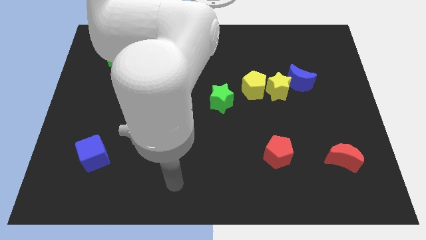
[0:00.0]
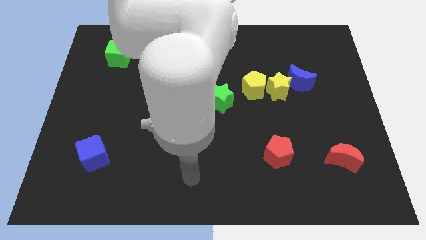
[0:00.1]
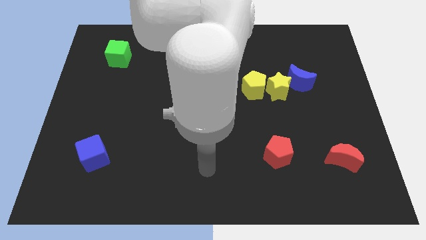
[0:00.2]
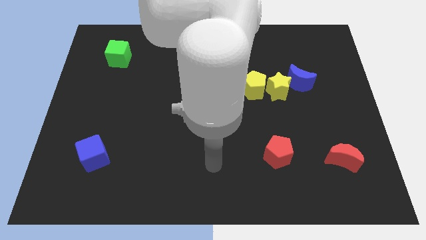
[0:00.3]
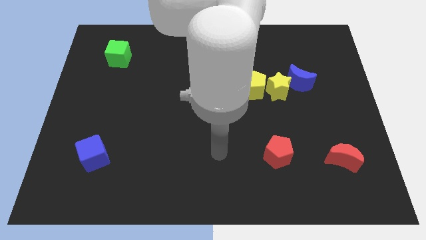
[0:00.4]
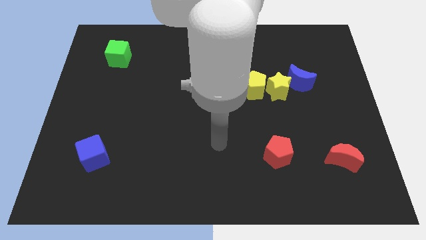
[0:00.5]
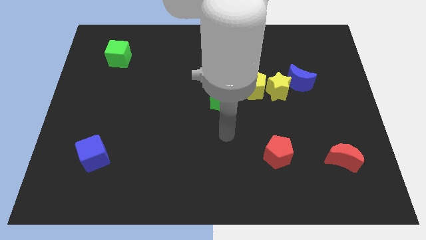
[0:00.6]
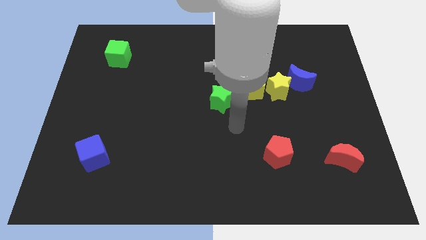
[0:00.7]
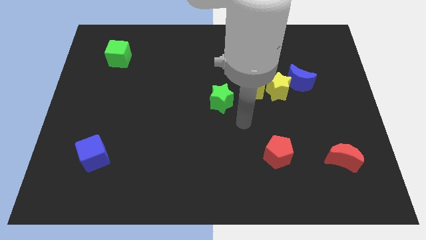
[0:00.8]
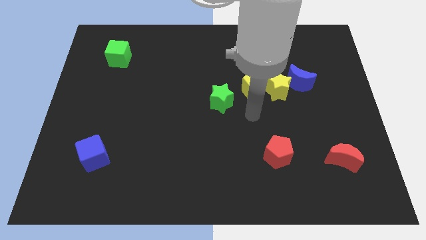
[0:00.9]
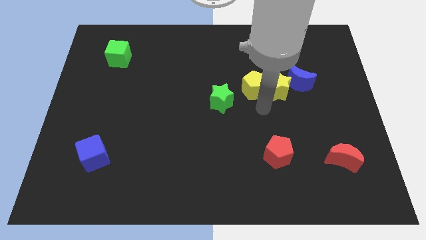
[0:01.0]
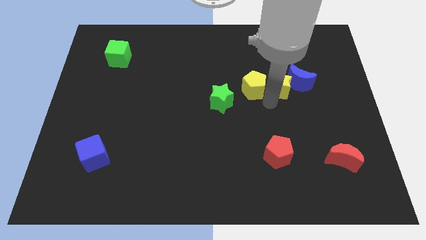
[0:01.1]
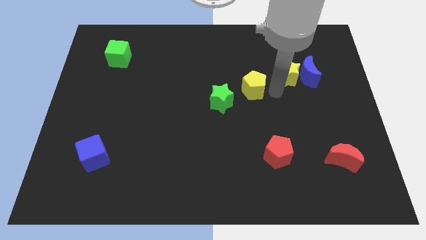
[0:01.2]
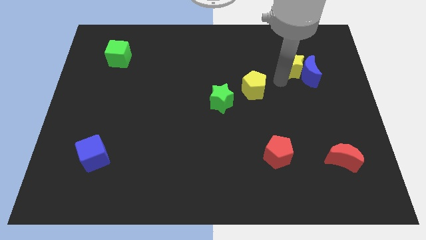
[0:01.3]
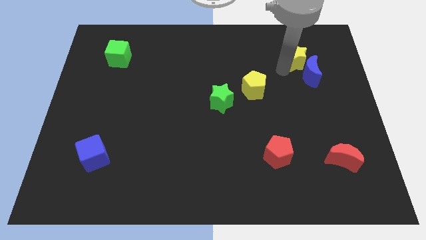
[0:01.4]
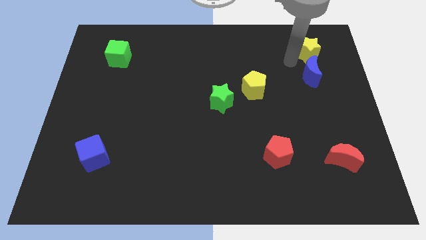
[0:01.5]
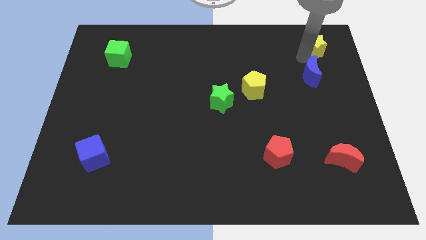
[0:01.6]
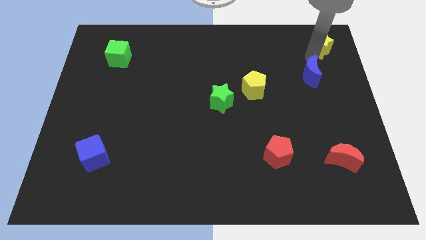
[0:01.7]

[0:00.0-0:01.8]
pull the blue moon apart from the yellow star

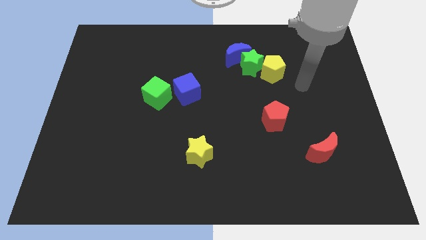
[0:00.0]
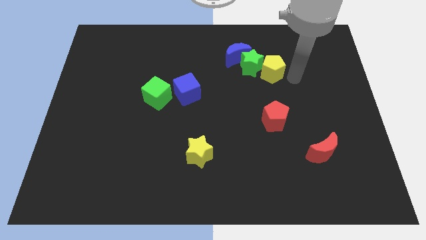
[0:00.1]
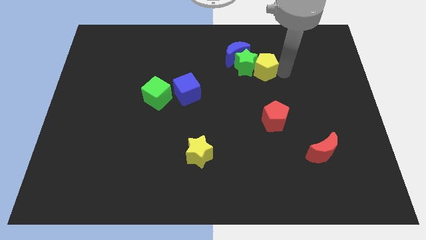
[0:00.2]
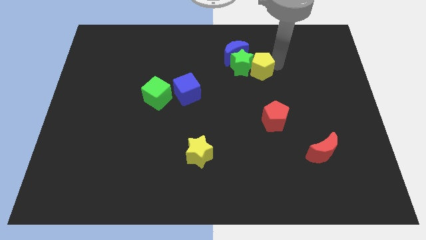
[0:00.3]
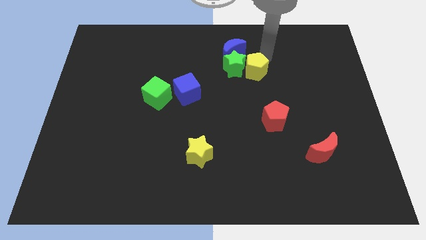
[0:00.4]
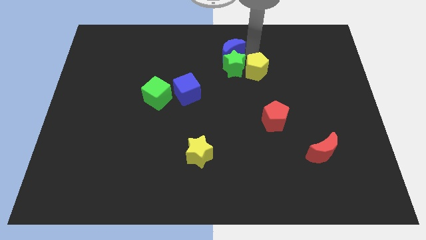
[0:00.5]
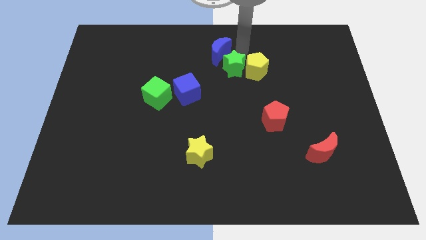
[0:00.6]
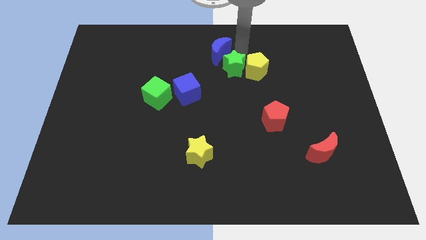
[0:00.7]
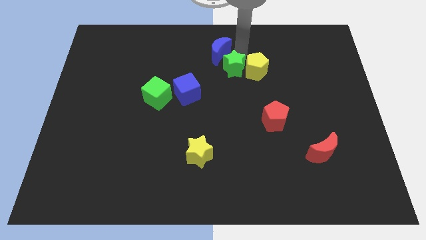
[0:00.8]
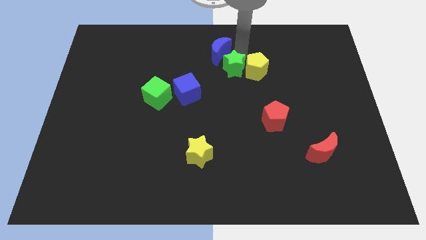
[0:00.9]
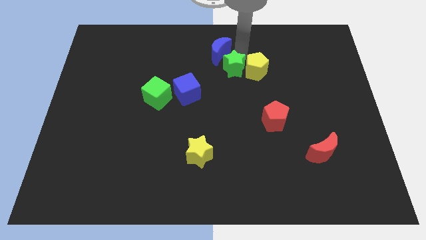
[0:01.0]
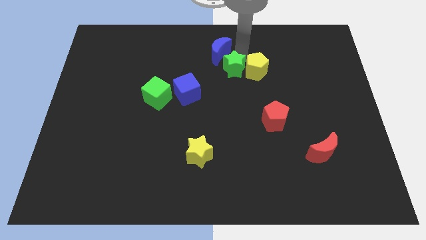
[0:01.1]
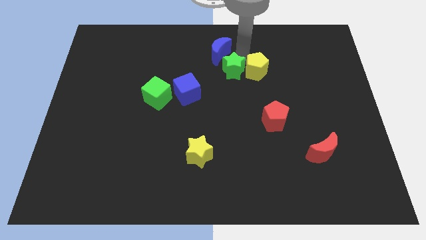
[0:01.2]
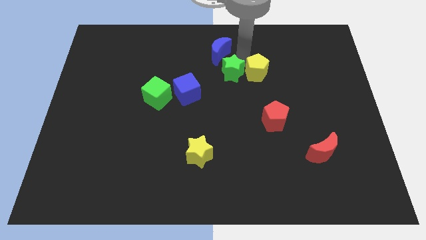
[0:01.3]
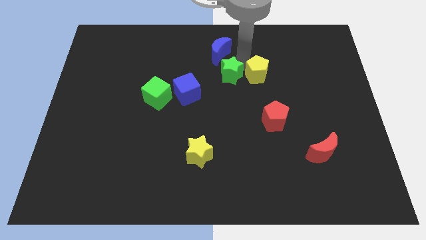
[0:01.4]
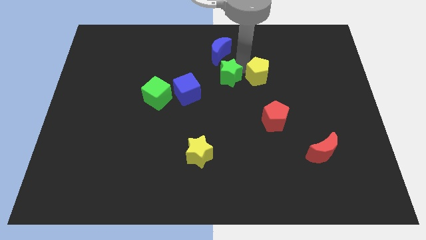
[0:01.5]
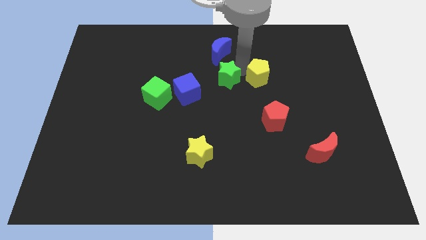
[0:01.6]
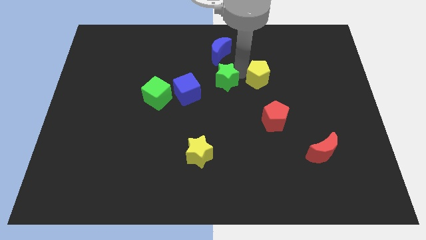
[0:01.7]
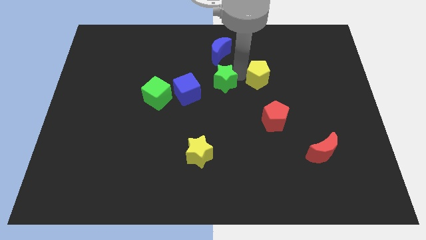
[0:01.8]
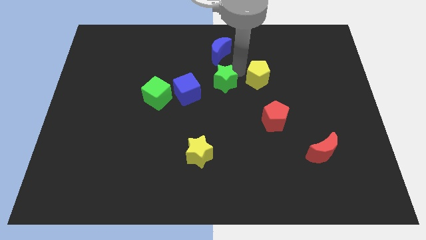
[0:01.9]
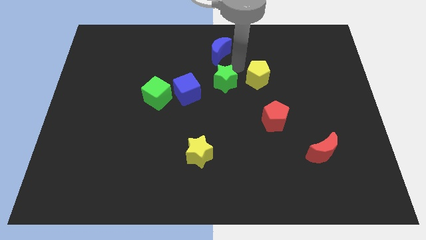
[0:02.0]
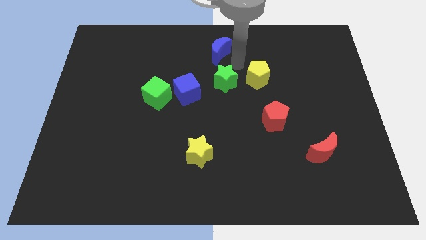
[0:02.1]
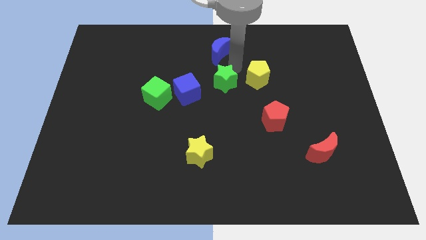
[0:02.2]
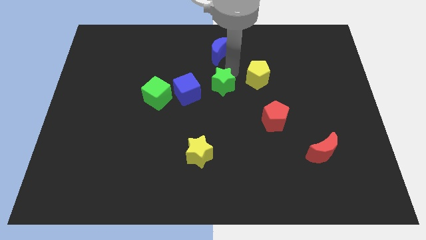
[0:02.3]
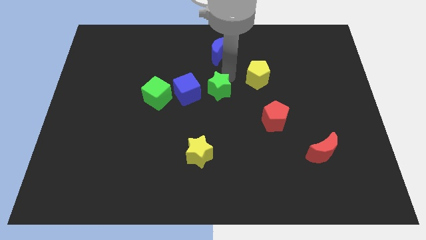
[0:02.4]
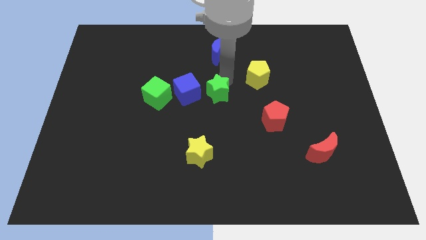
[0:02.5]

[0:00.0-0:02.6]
separate the green star from the blue moon and yellow pentagon

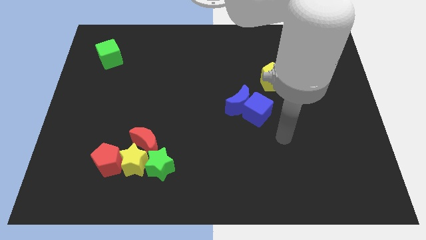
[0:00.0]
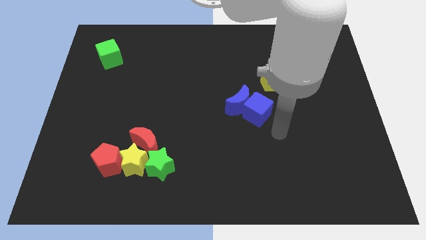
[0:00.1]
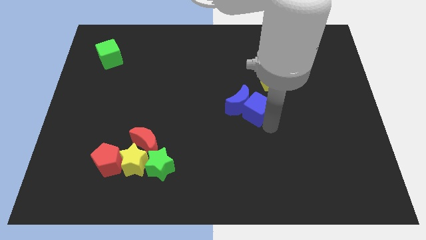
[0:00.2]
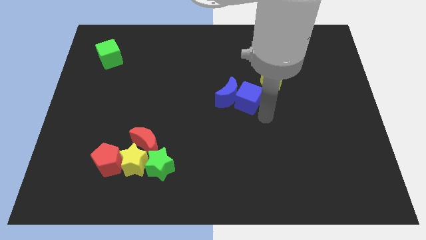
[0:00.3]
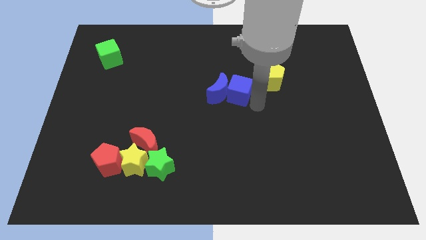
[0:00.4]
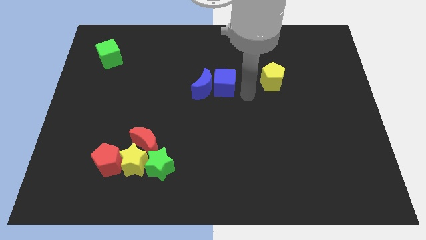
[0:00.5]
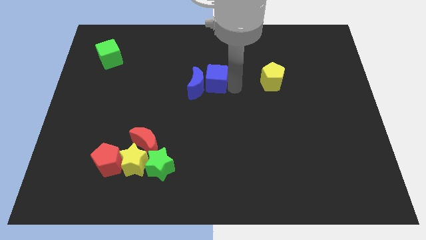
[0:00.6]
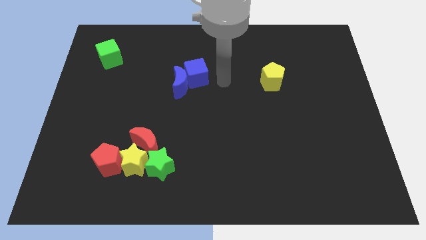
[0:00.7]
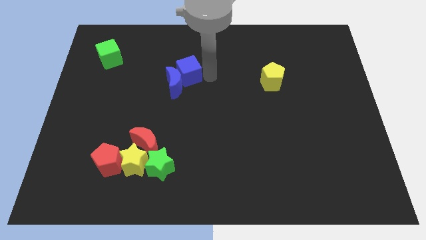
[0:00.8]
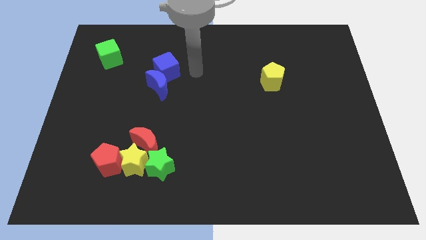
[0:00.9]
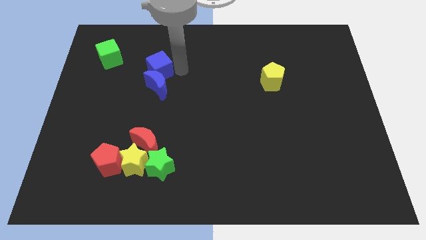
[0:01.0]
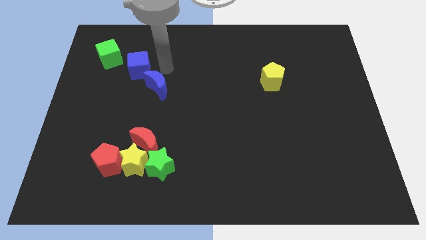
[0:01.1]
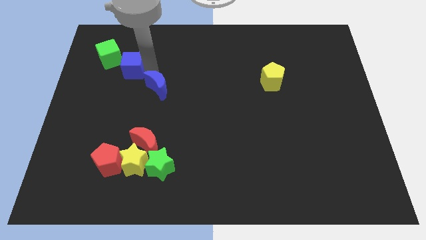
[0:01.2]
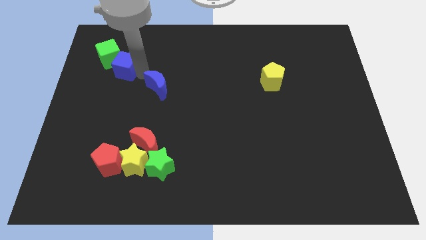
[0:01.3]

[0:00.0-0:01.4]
pull the blue moon apart from the blue cube

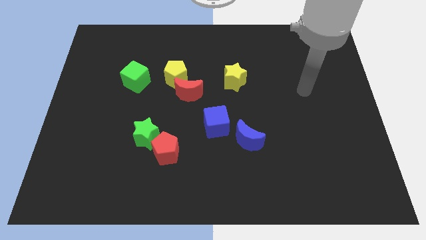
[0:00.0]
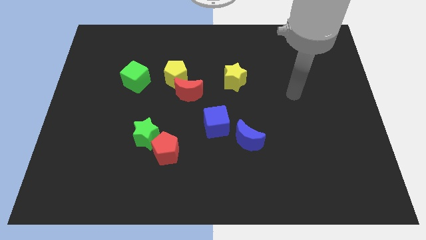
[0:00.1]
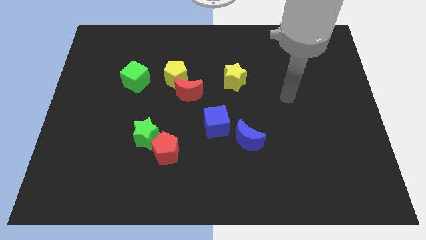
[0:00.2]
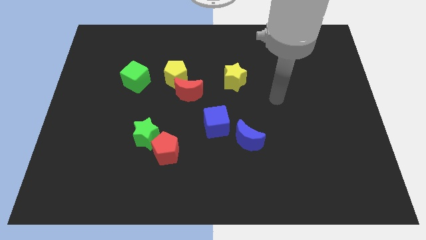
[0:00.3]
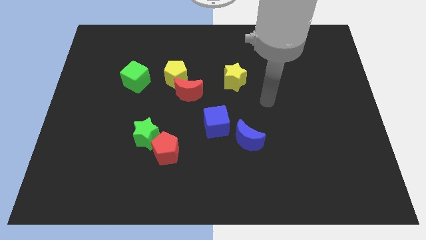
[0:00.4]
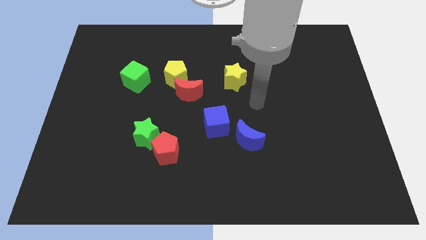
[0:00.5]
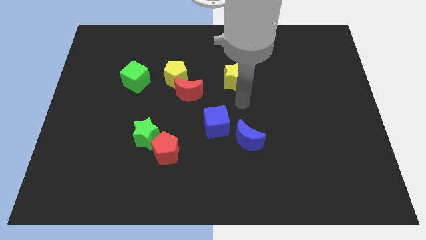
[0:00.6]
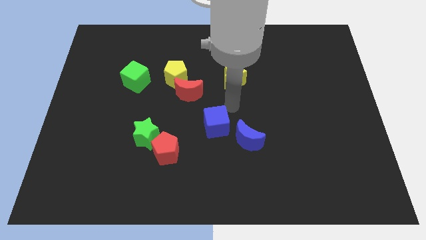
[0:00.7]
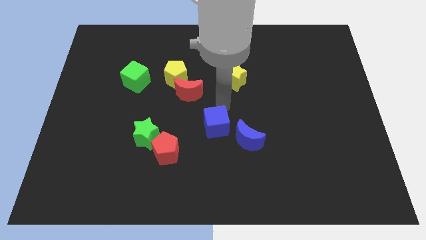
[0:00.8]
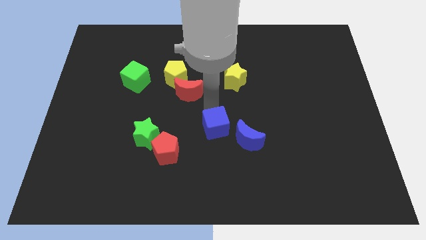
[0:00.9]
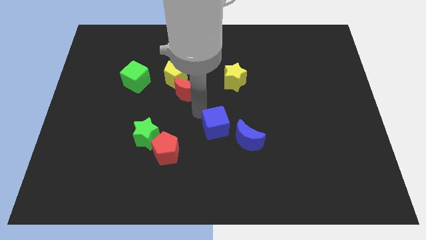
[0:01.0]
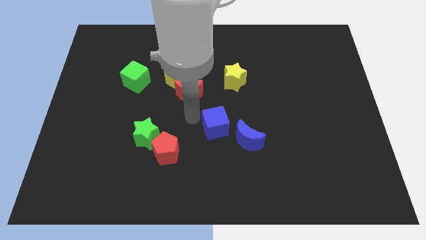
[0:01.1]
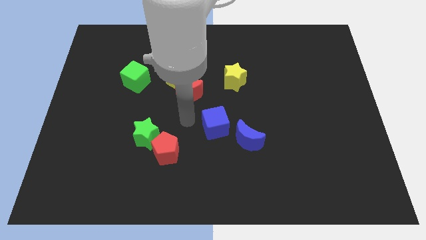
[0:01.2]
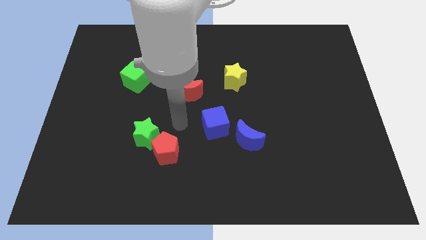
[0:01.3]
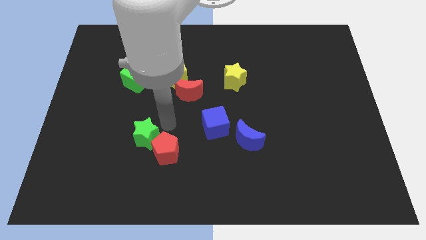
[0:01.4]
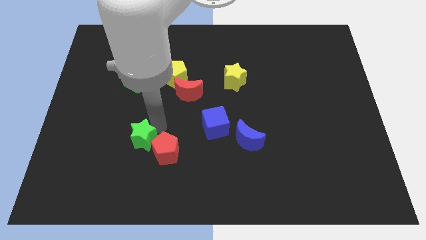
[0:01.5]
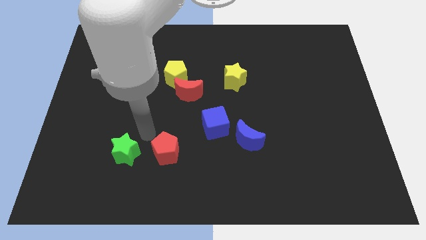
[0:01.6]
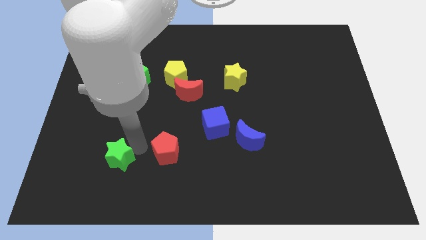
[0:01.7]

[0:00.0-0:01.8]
move the red pentagon away from the green star

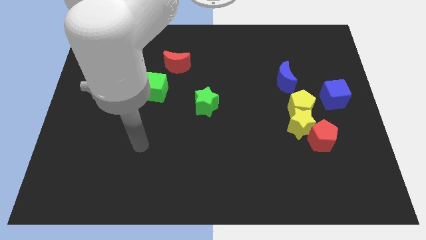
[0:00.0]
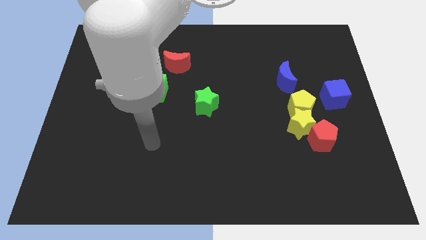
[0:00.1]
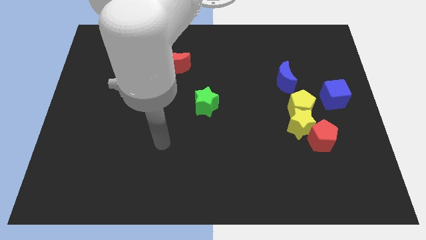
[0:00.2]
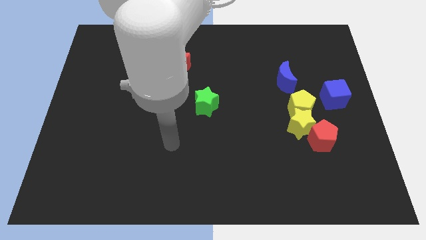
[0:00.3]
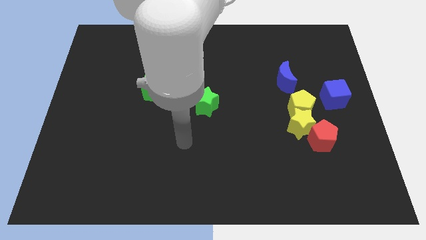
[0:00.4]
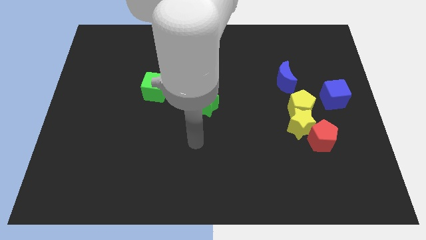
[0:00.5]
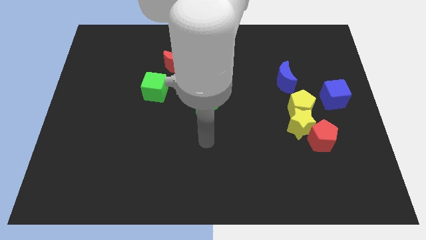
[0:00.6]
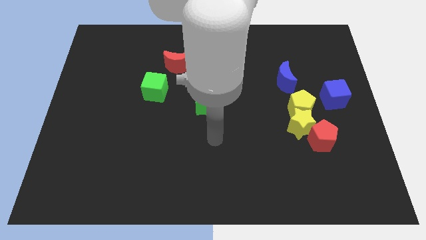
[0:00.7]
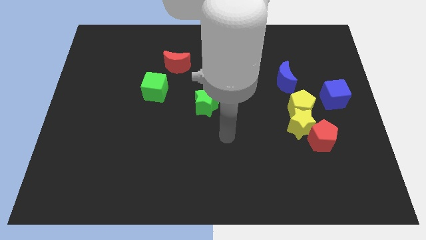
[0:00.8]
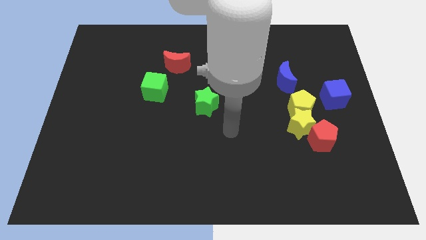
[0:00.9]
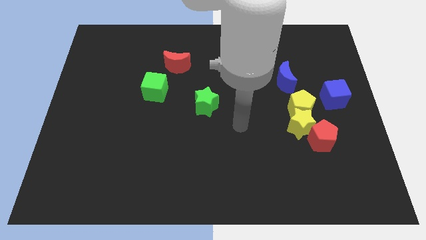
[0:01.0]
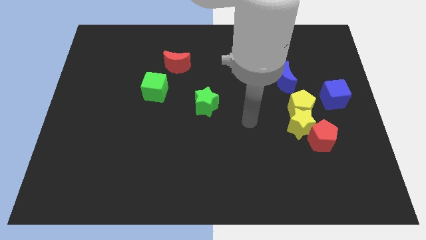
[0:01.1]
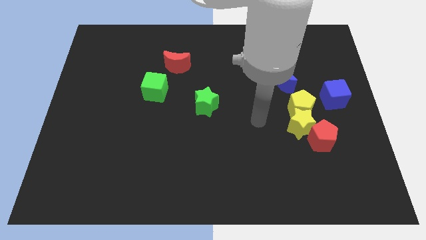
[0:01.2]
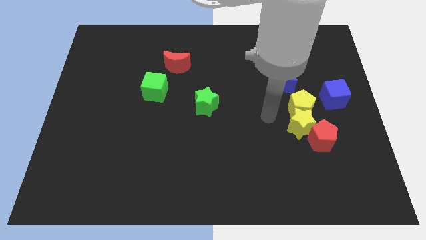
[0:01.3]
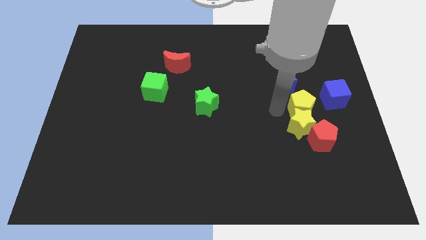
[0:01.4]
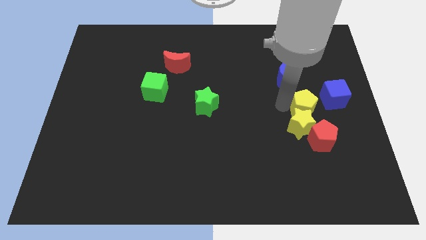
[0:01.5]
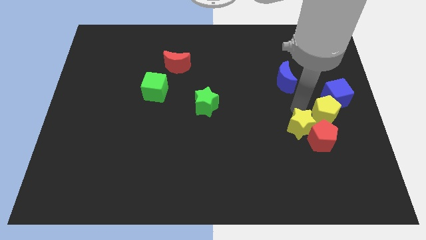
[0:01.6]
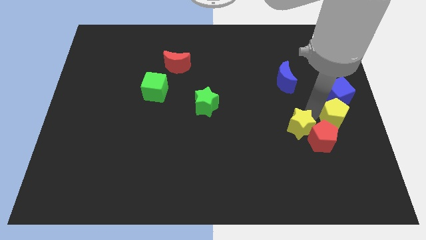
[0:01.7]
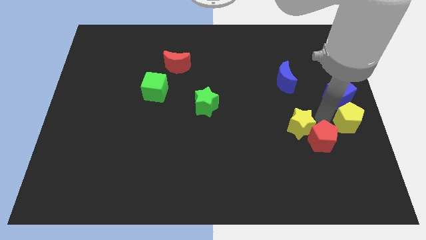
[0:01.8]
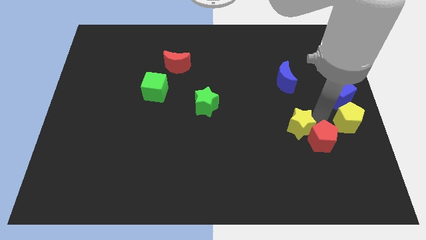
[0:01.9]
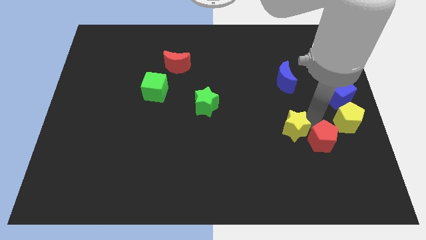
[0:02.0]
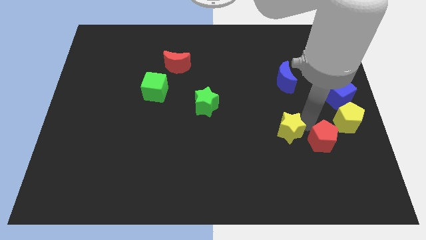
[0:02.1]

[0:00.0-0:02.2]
move the yellow star away from the yellow pentagon and red pentagon
